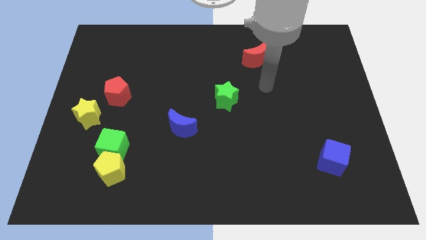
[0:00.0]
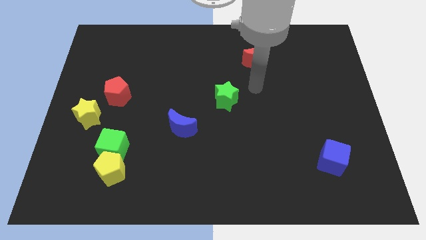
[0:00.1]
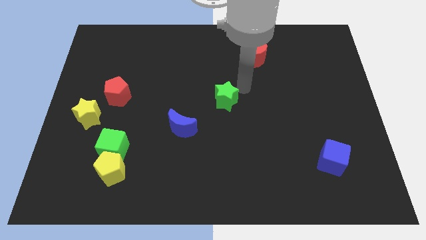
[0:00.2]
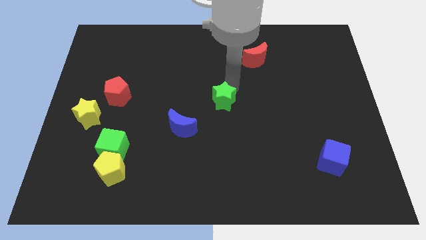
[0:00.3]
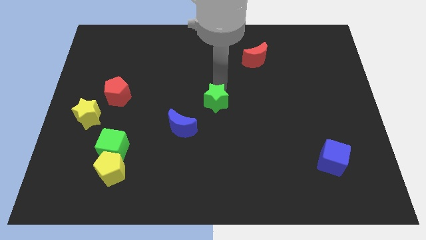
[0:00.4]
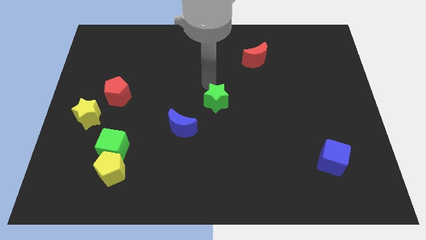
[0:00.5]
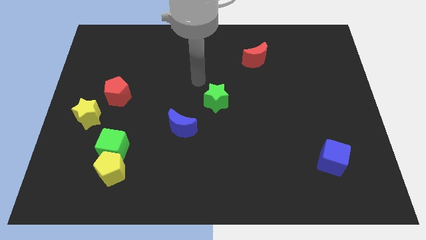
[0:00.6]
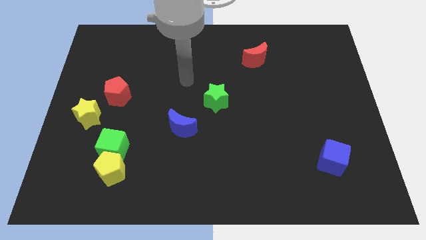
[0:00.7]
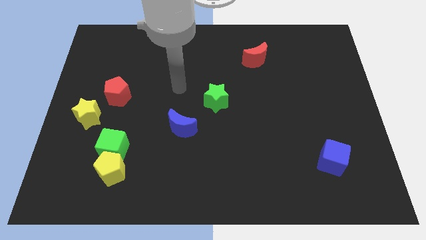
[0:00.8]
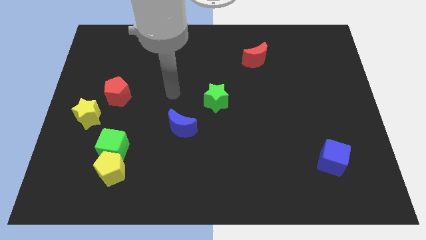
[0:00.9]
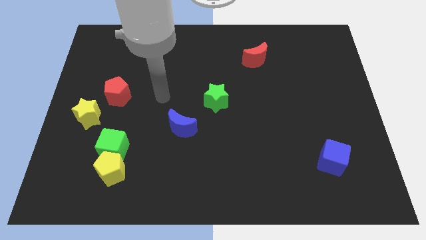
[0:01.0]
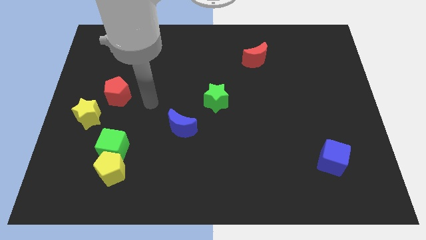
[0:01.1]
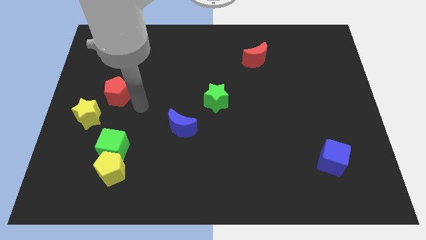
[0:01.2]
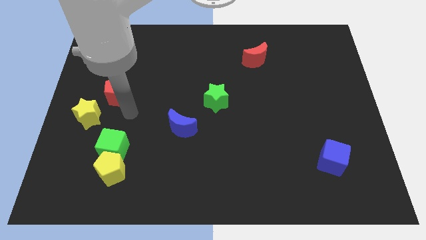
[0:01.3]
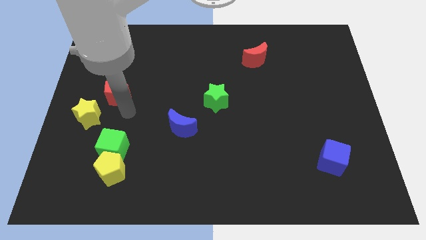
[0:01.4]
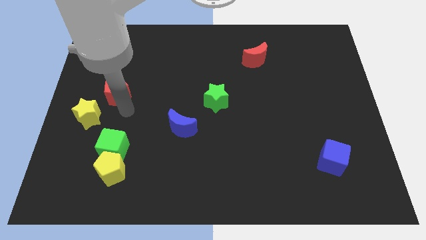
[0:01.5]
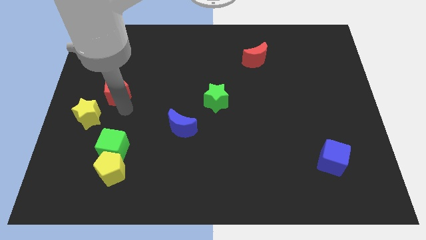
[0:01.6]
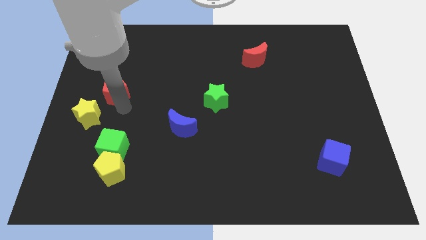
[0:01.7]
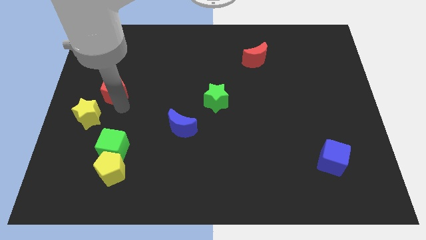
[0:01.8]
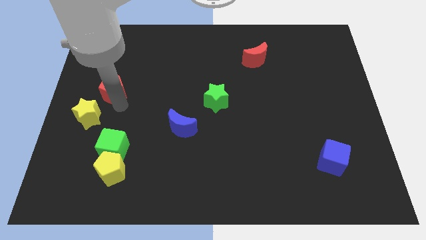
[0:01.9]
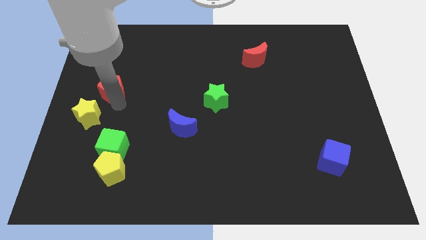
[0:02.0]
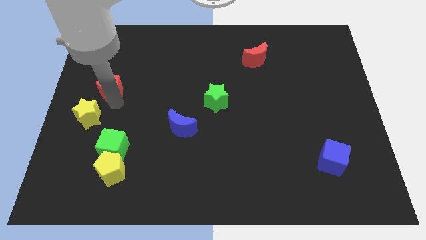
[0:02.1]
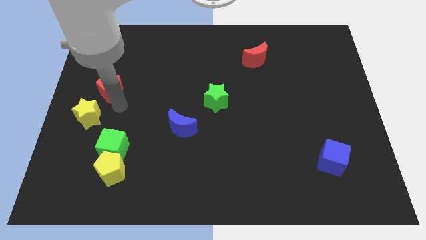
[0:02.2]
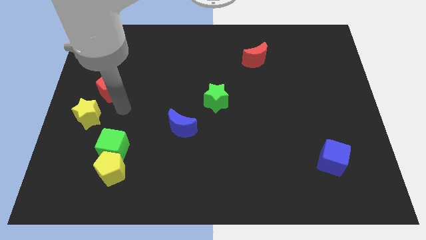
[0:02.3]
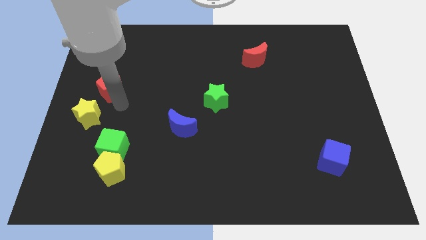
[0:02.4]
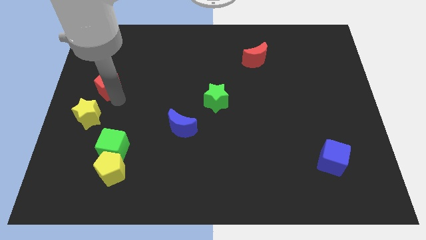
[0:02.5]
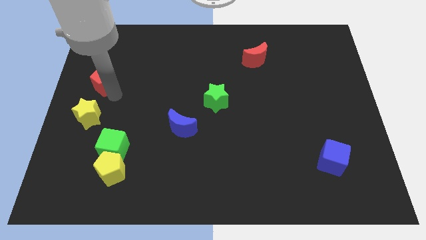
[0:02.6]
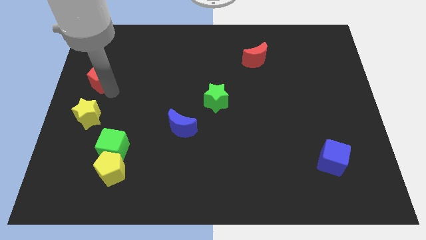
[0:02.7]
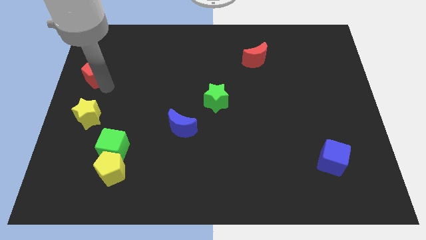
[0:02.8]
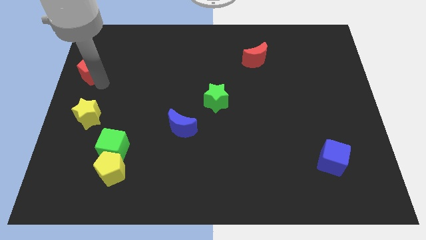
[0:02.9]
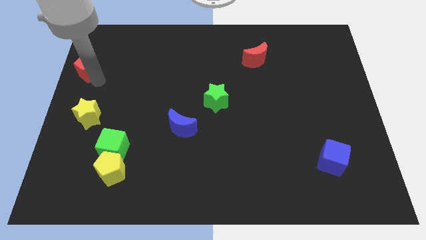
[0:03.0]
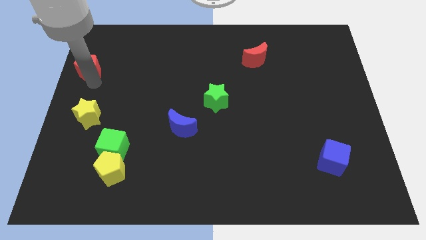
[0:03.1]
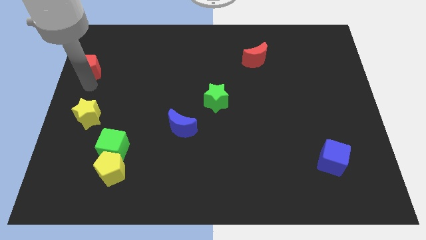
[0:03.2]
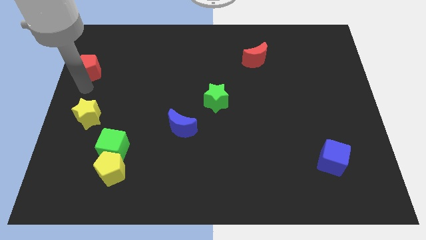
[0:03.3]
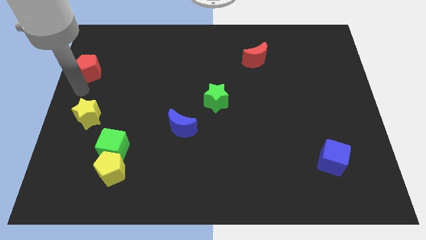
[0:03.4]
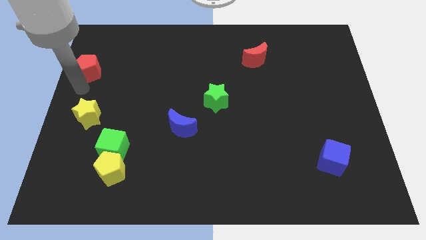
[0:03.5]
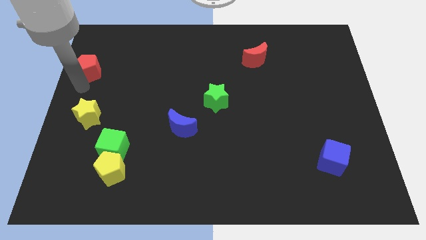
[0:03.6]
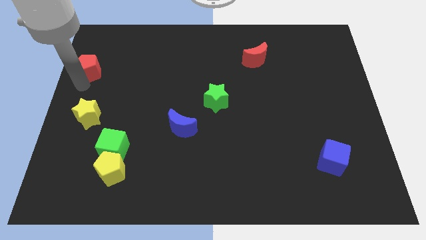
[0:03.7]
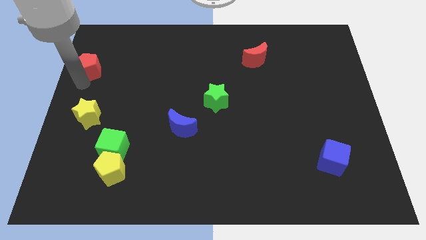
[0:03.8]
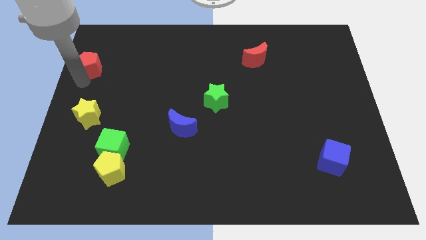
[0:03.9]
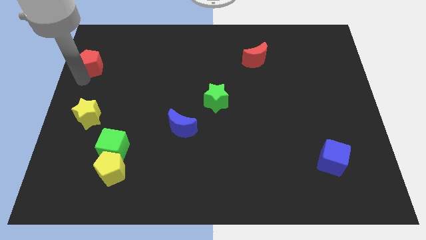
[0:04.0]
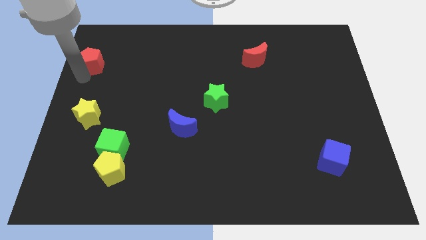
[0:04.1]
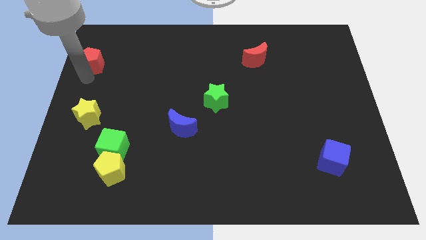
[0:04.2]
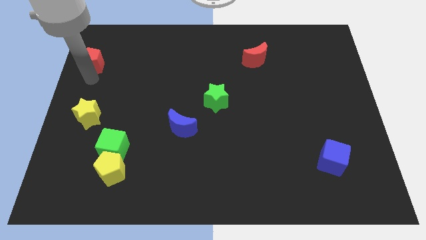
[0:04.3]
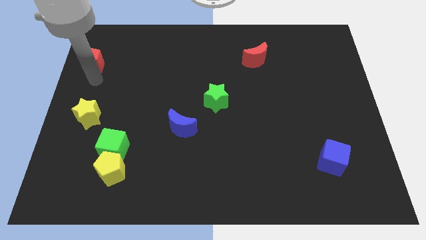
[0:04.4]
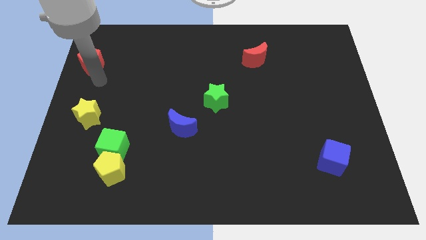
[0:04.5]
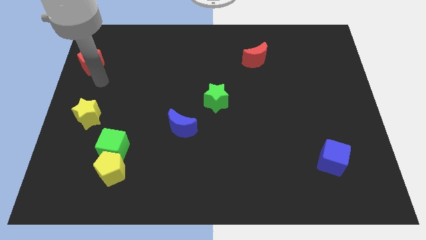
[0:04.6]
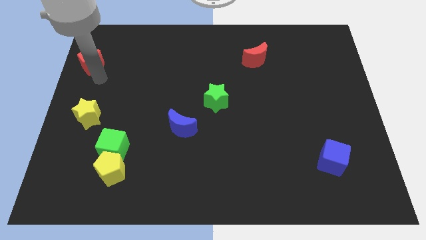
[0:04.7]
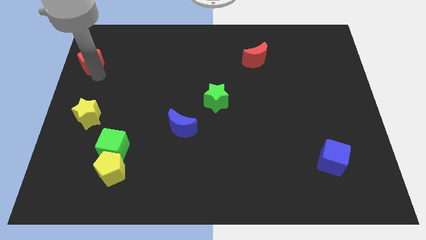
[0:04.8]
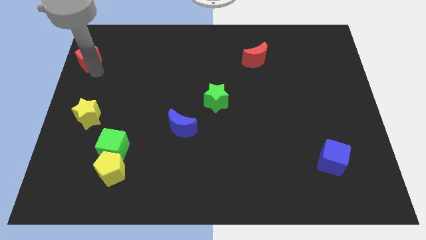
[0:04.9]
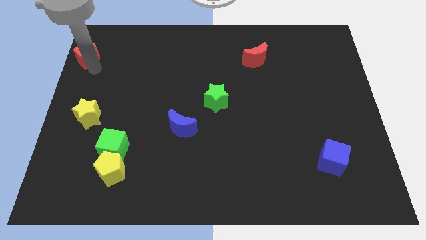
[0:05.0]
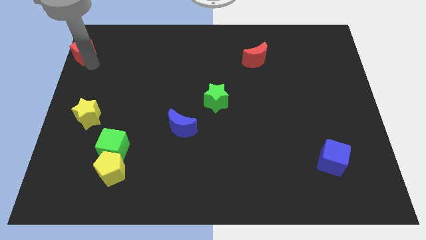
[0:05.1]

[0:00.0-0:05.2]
put the red pentagon to the top left
